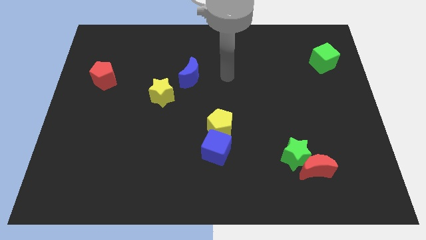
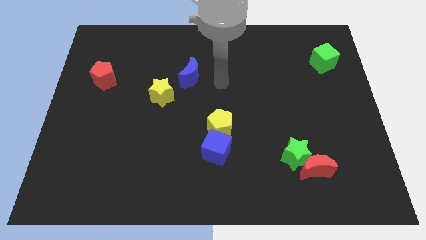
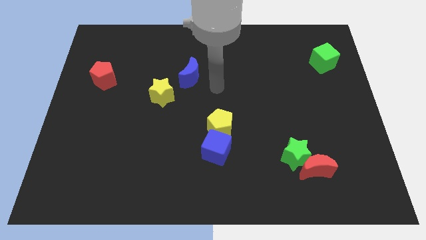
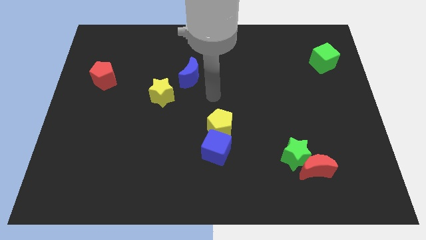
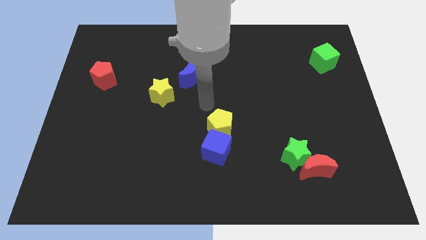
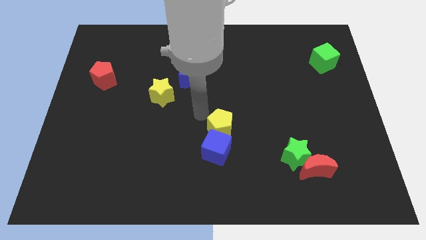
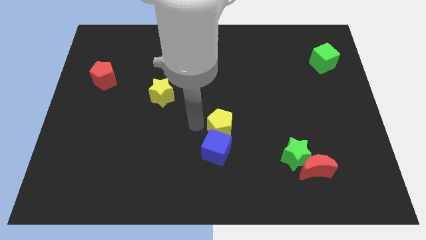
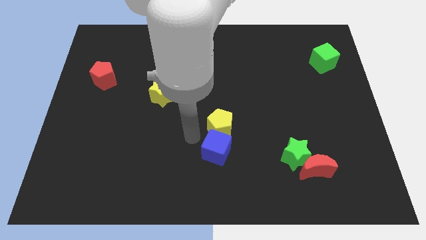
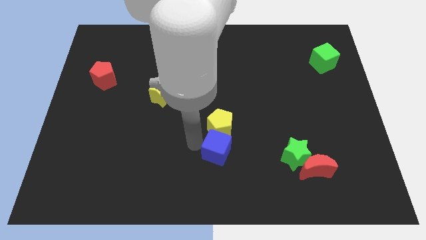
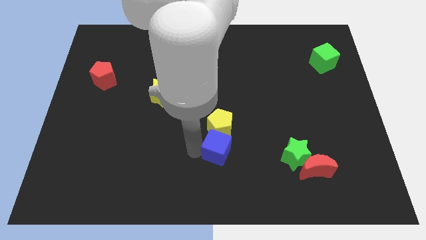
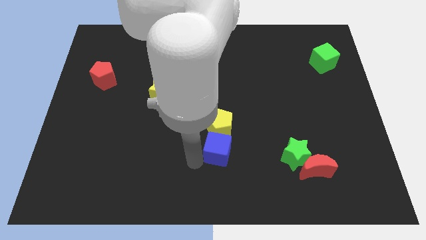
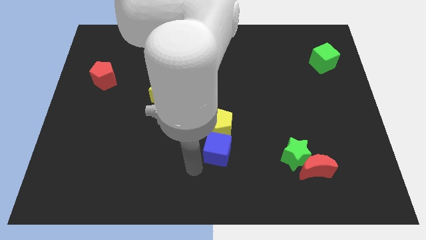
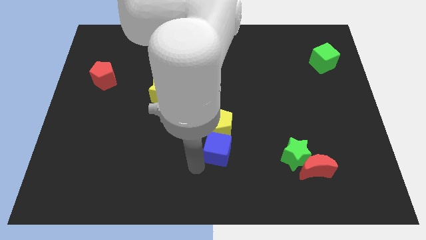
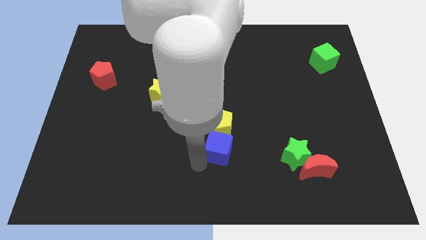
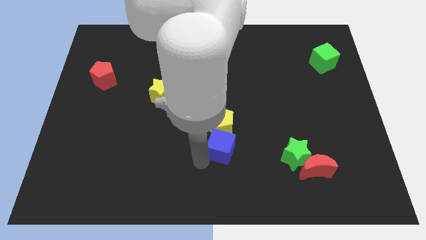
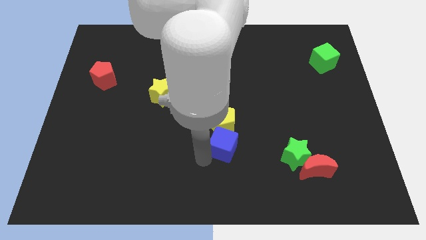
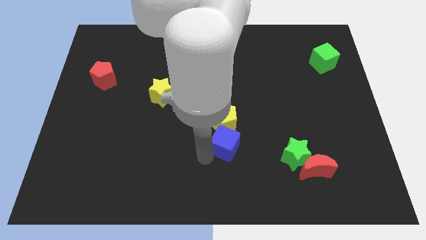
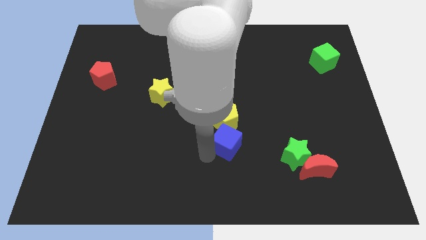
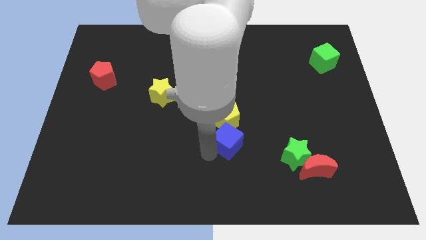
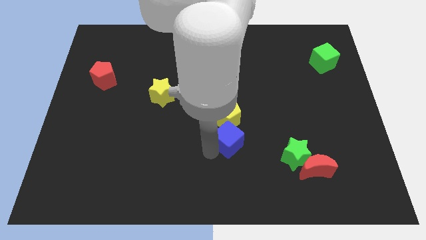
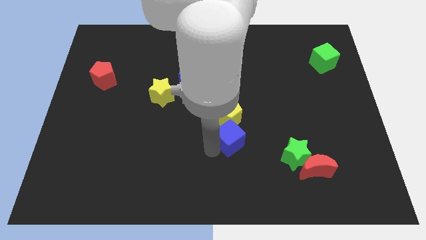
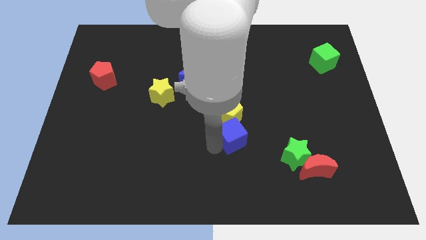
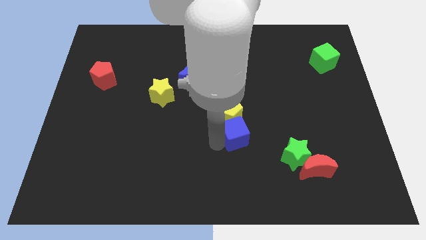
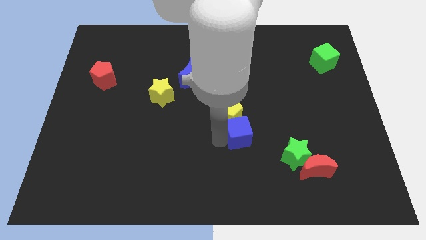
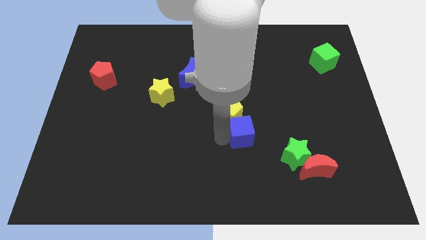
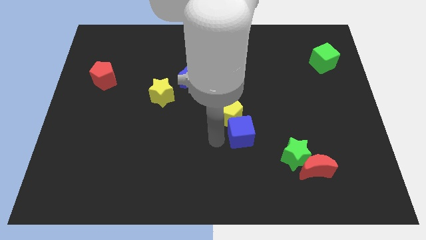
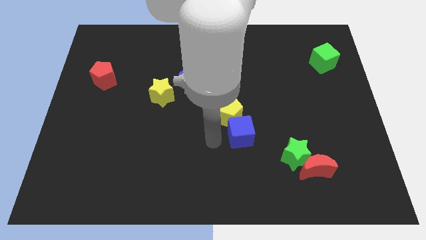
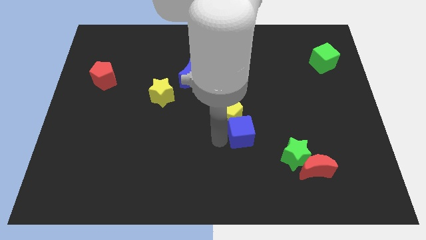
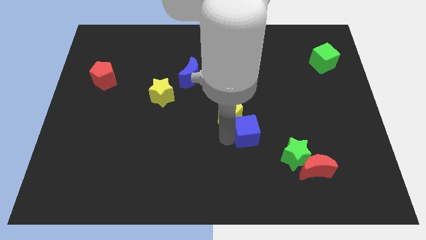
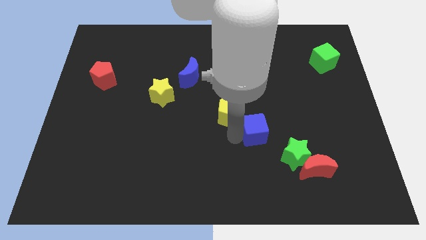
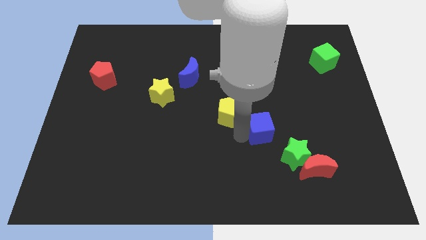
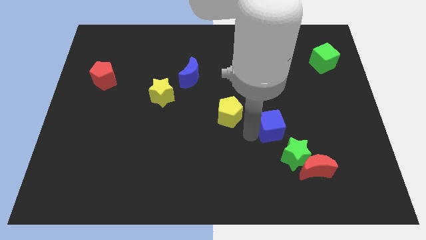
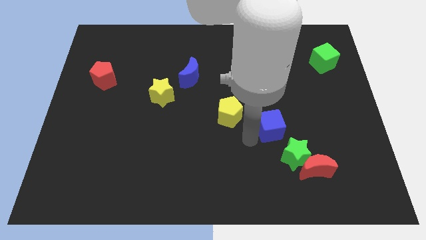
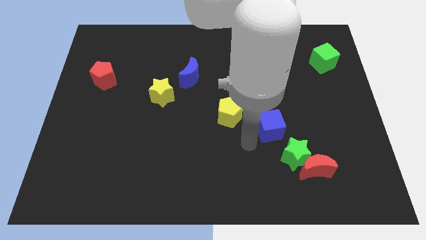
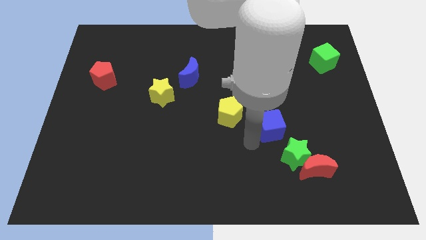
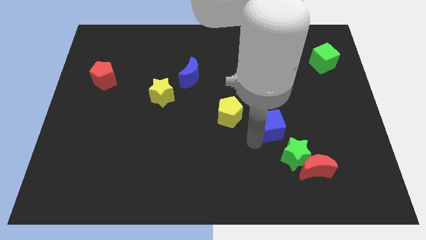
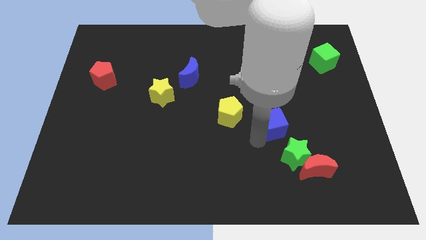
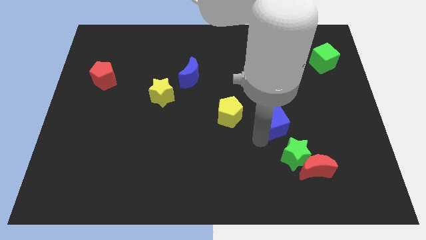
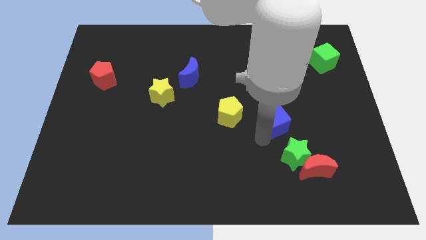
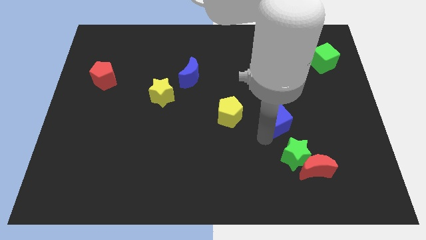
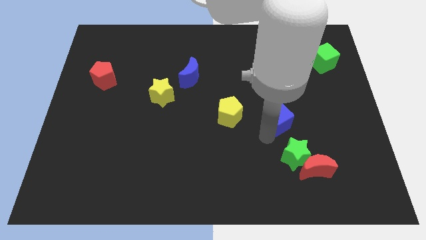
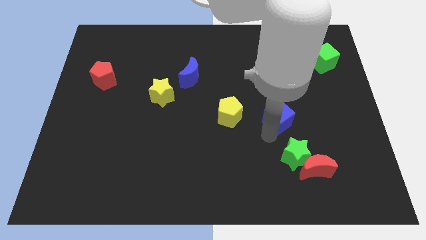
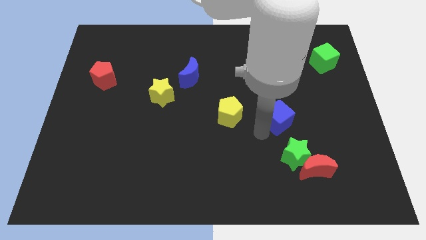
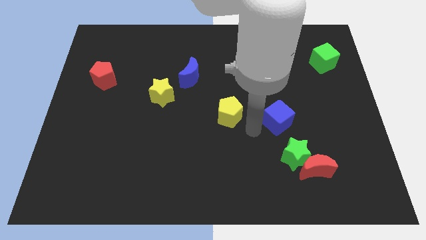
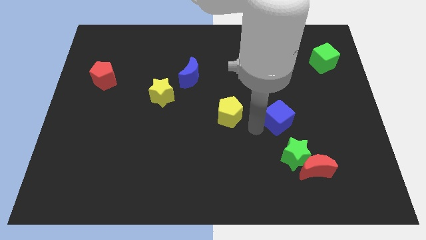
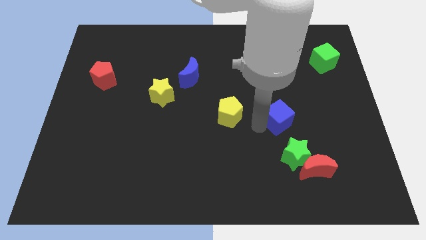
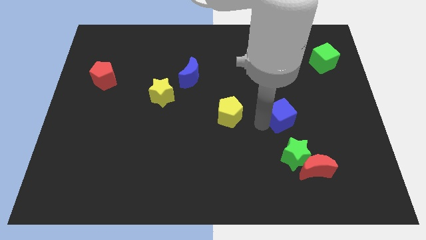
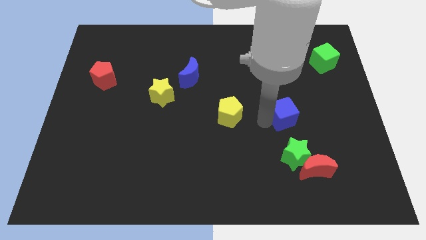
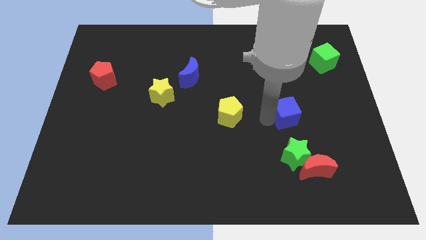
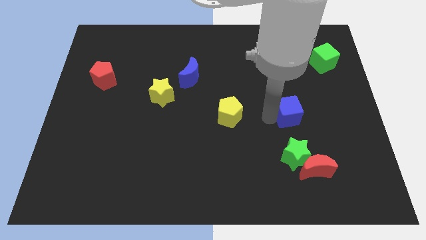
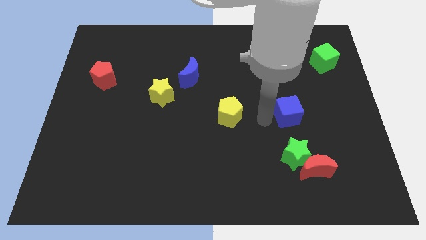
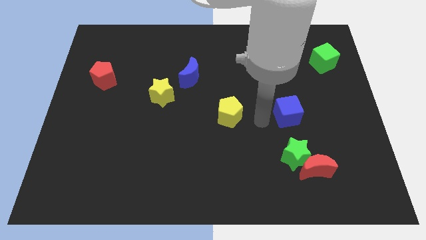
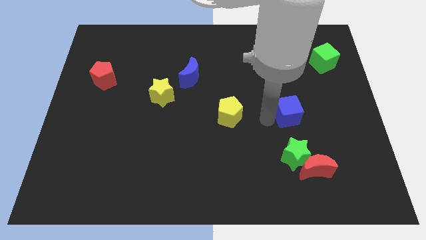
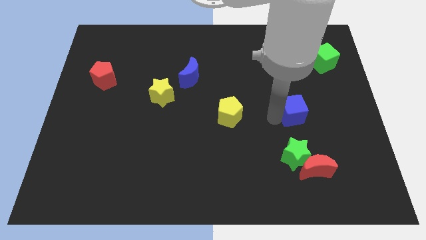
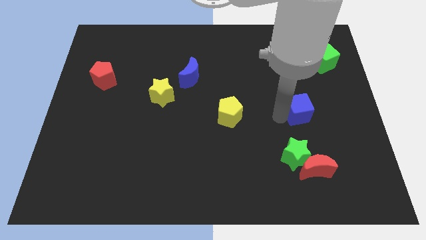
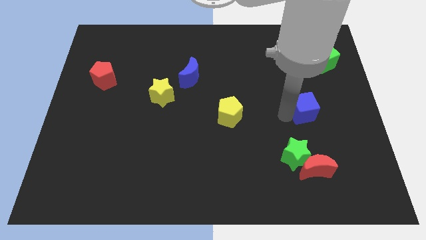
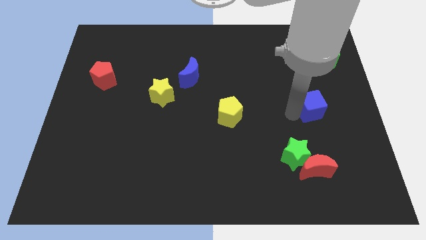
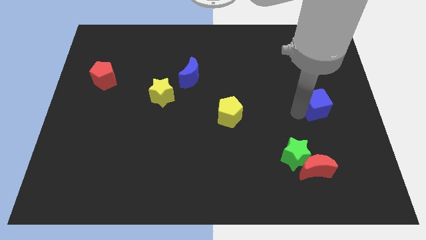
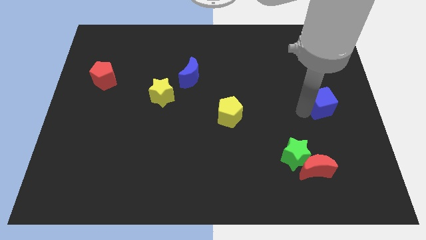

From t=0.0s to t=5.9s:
push the blue cube to the right side of the board

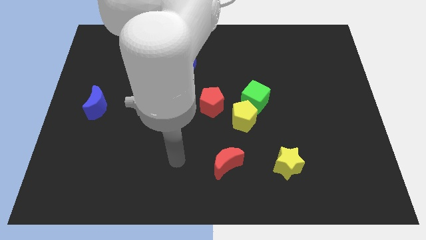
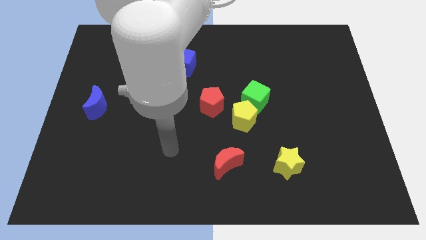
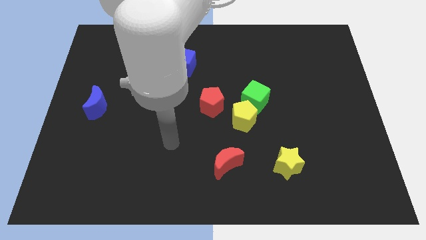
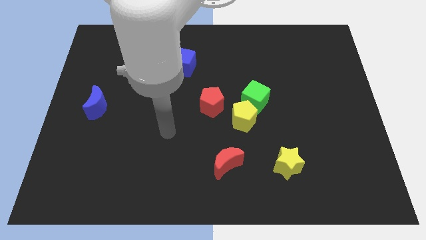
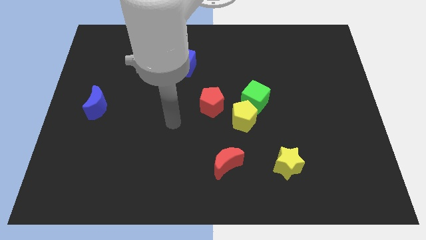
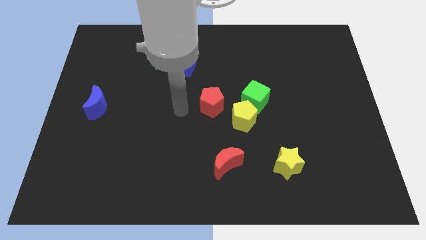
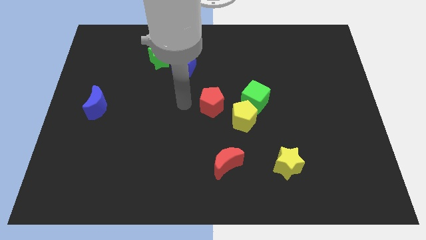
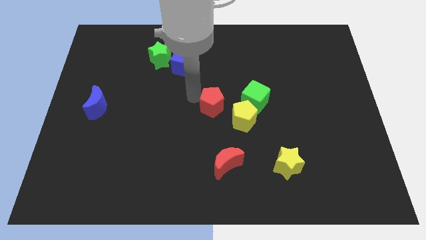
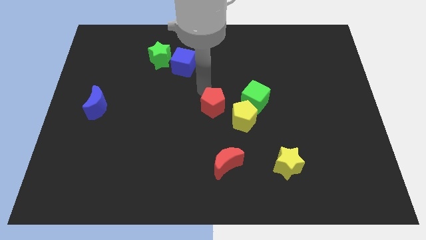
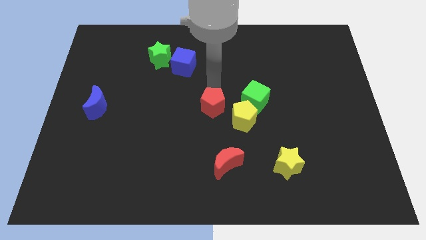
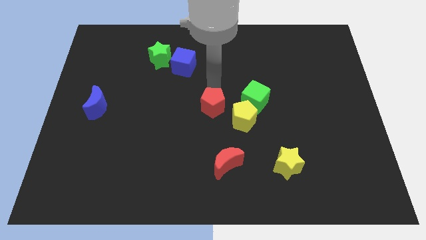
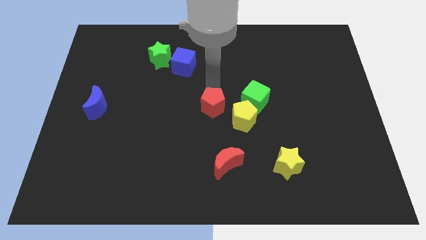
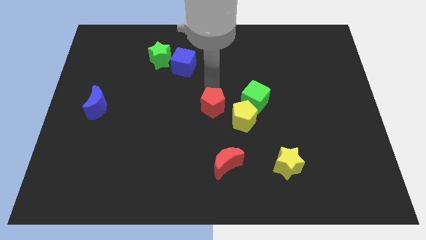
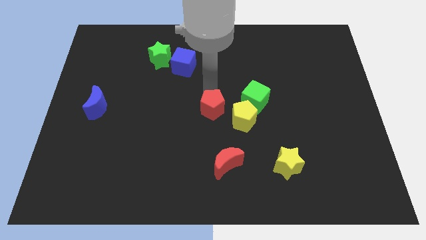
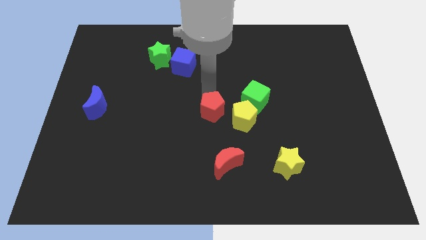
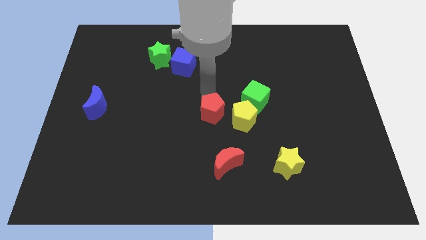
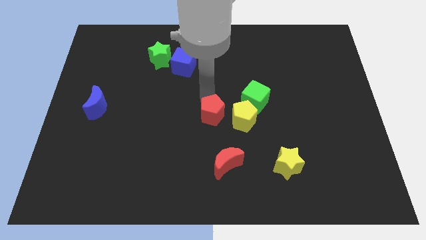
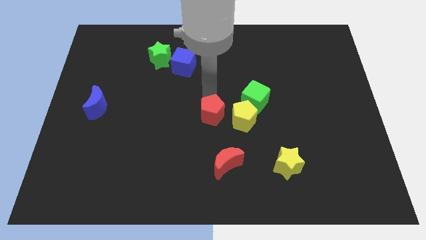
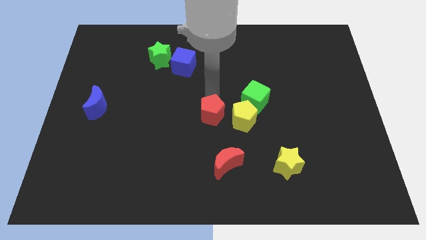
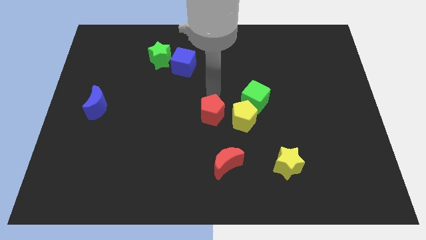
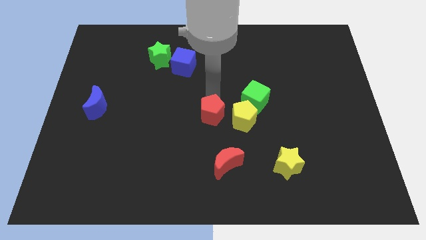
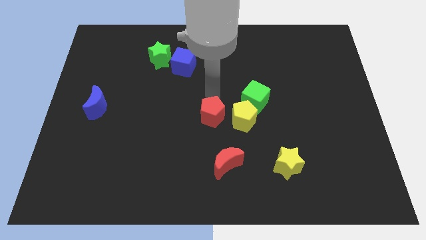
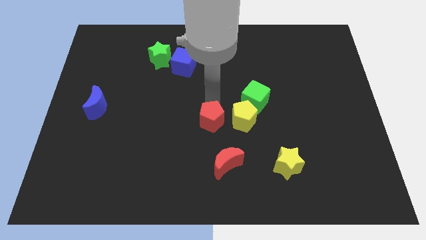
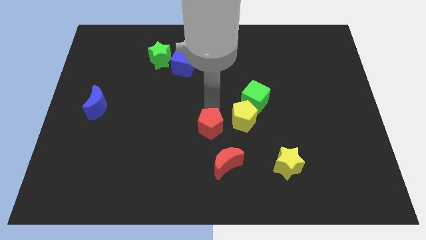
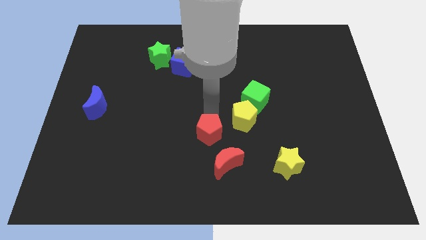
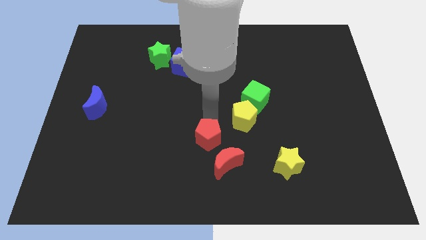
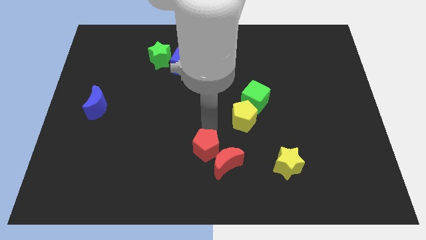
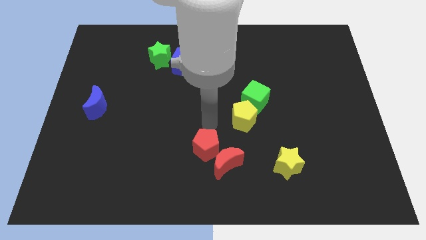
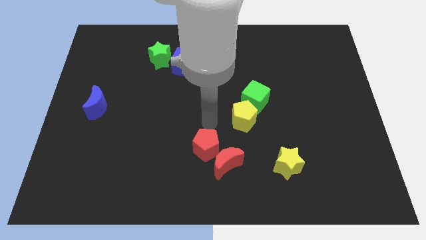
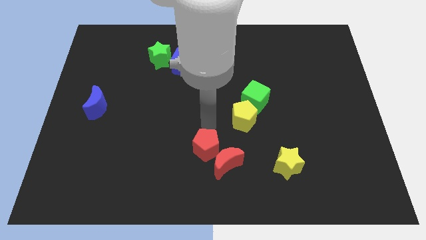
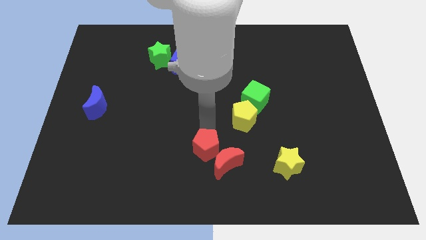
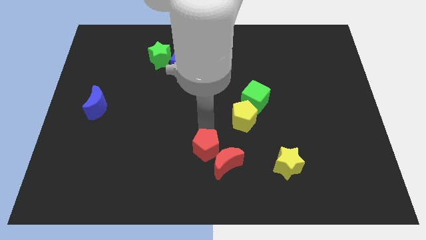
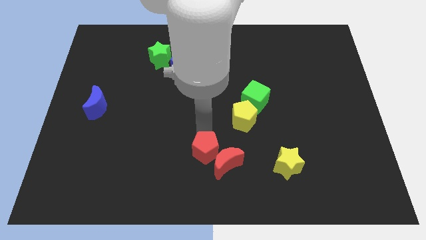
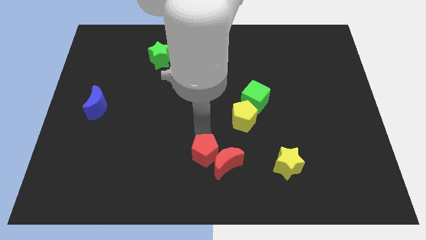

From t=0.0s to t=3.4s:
put the red pentagon to the bottom
